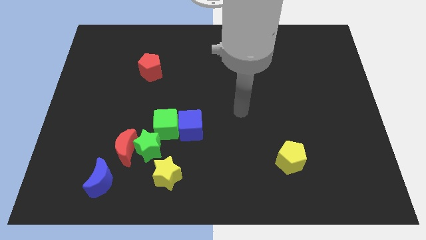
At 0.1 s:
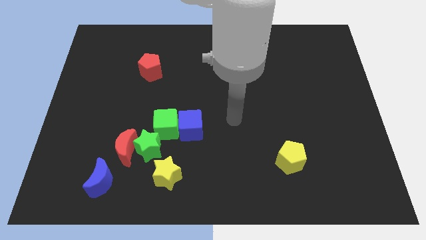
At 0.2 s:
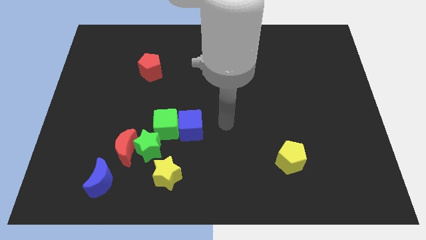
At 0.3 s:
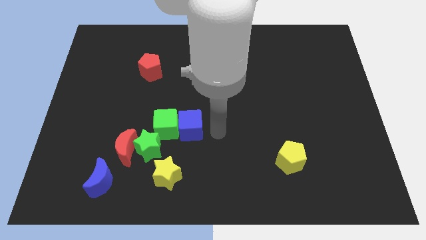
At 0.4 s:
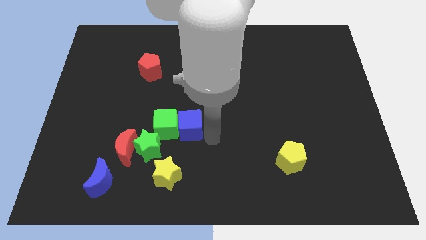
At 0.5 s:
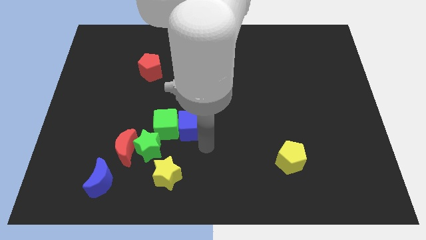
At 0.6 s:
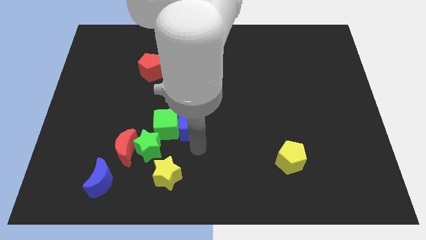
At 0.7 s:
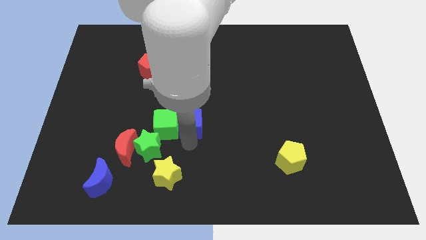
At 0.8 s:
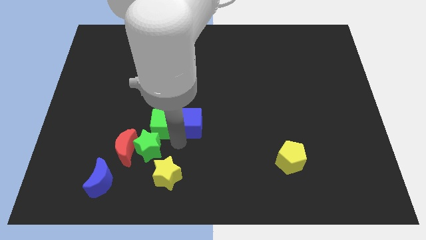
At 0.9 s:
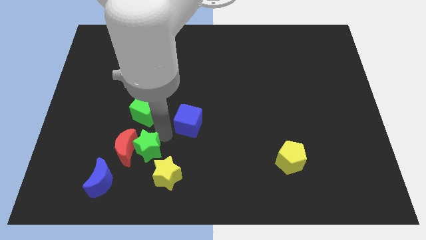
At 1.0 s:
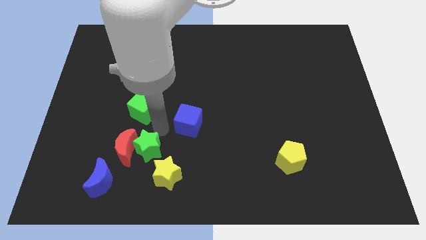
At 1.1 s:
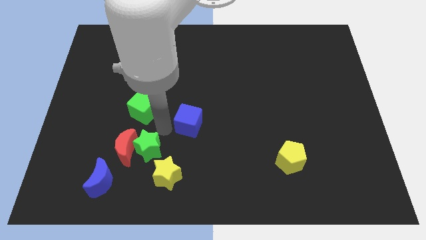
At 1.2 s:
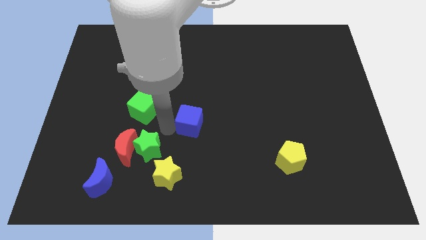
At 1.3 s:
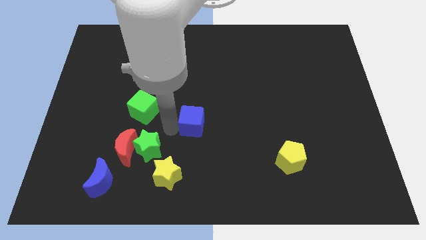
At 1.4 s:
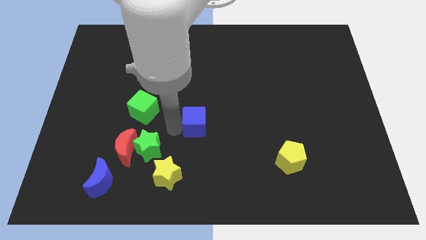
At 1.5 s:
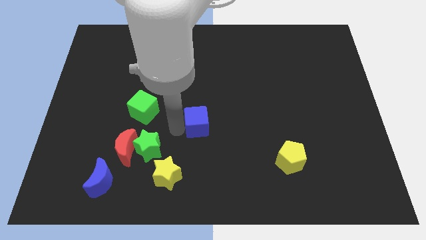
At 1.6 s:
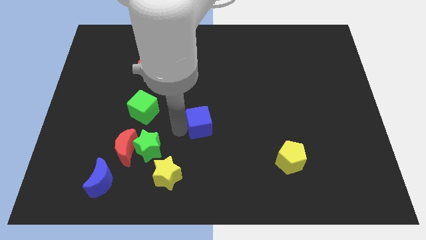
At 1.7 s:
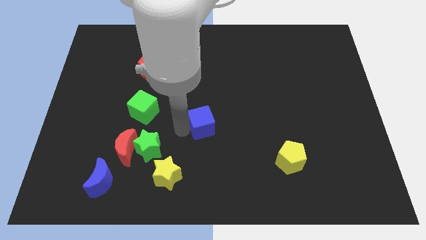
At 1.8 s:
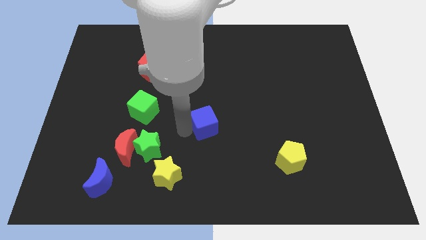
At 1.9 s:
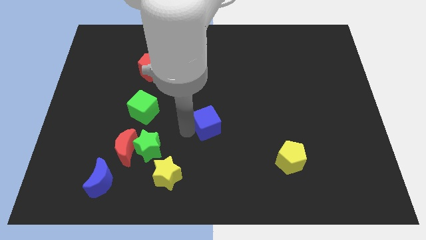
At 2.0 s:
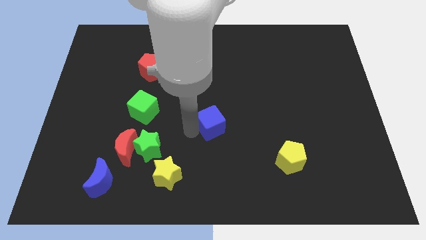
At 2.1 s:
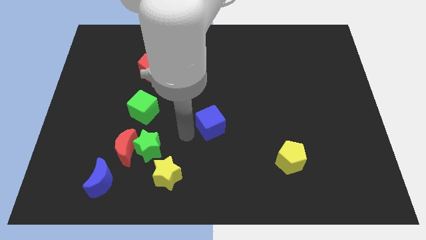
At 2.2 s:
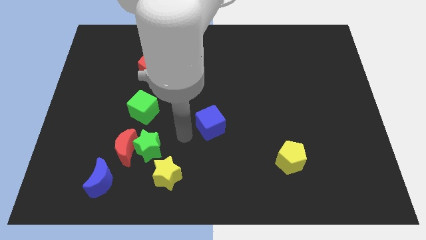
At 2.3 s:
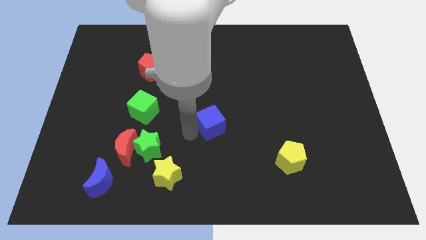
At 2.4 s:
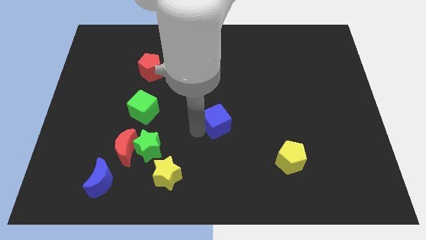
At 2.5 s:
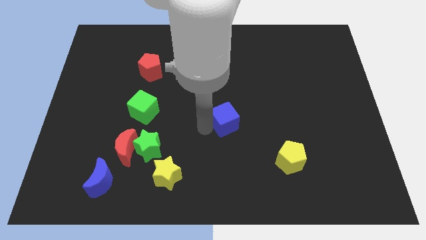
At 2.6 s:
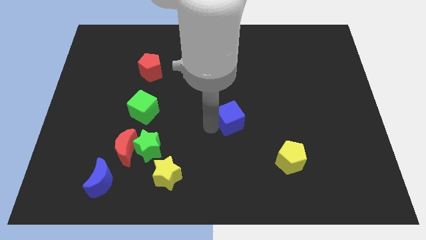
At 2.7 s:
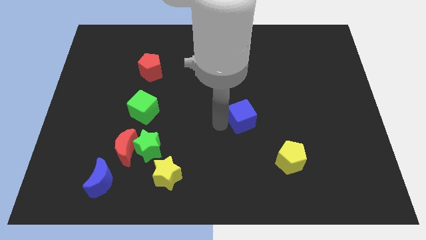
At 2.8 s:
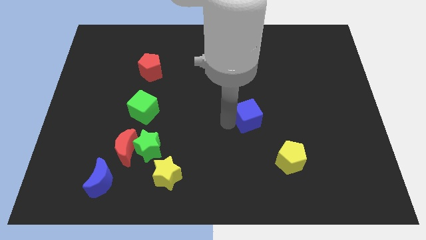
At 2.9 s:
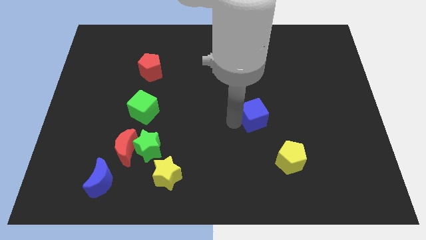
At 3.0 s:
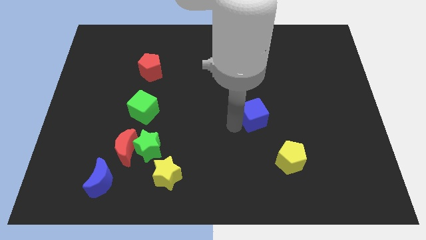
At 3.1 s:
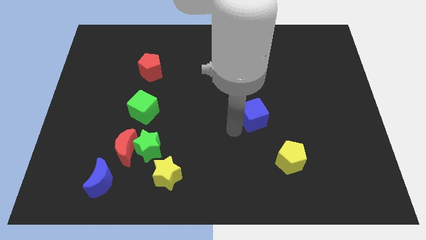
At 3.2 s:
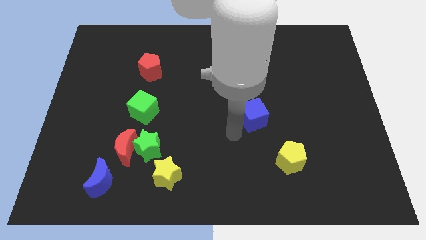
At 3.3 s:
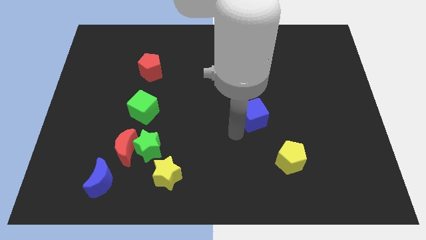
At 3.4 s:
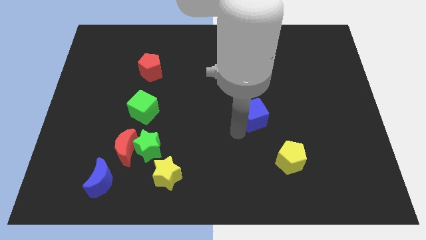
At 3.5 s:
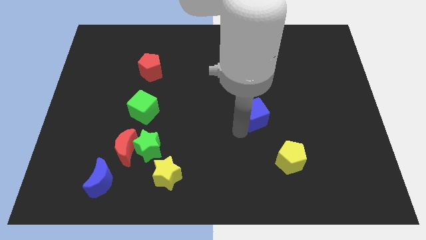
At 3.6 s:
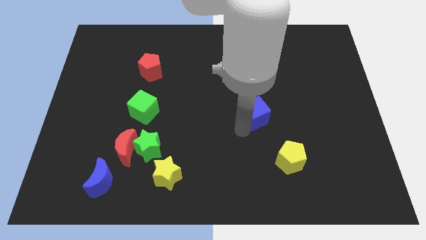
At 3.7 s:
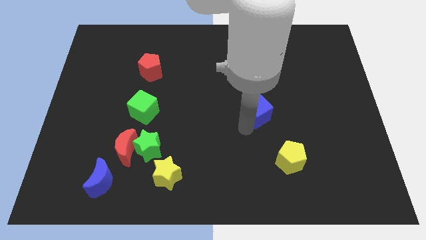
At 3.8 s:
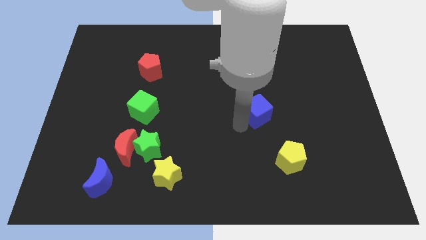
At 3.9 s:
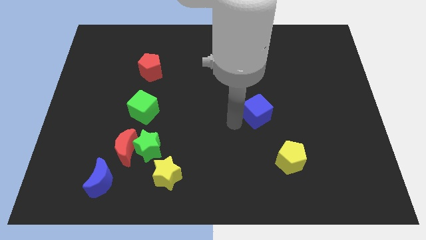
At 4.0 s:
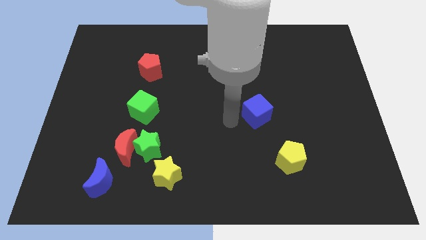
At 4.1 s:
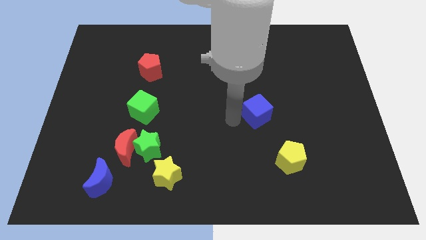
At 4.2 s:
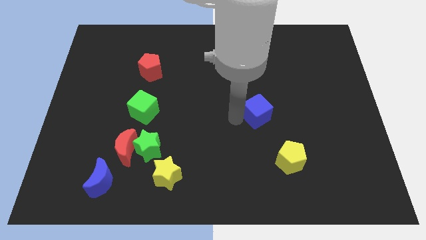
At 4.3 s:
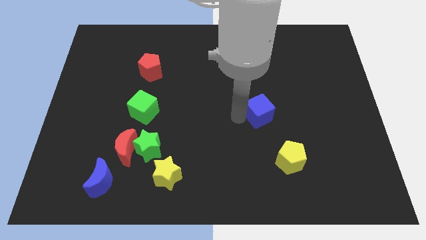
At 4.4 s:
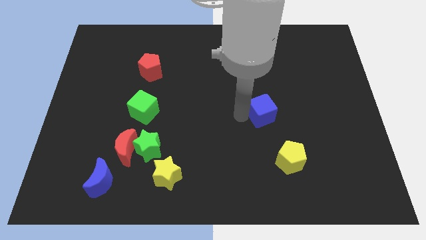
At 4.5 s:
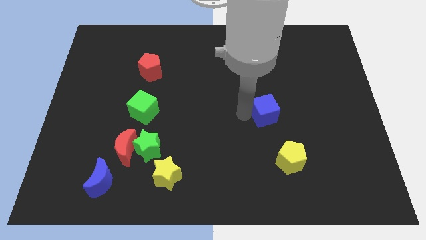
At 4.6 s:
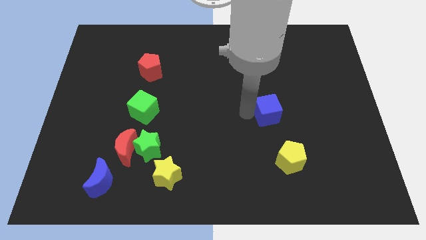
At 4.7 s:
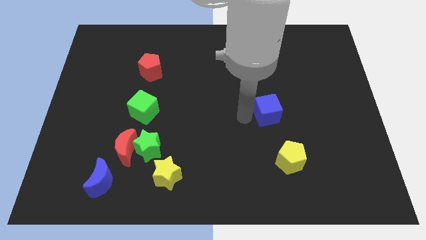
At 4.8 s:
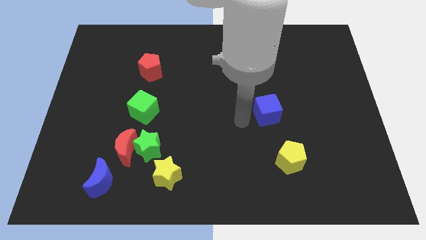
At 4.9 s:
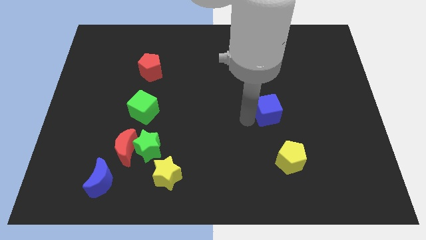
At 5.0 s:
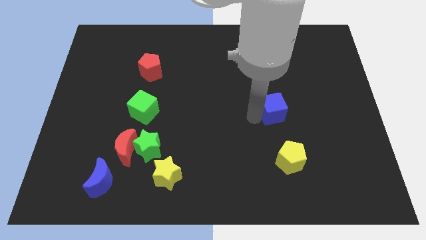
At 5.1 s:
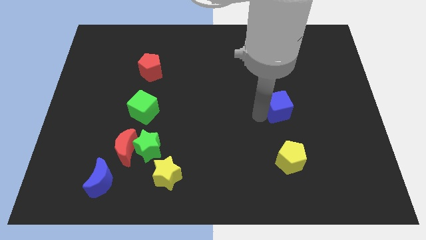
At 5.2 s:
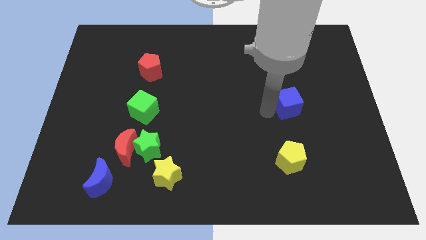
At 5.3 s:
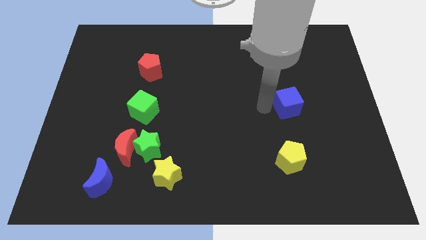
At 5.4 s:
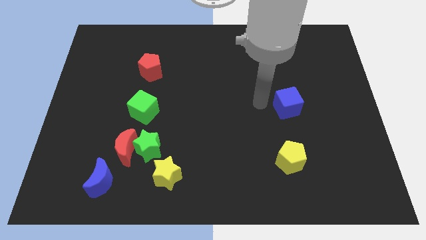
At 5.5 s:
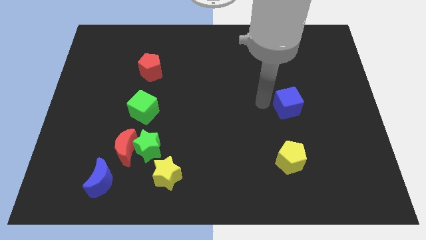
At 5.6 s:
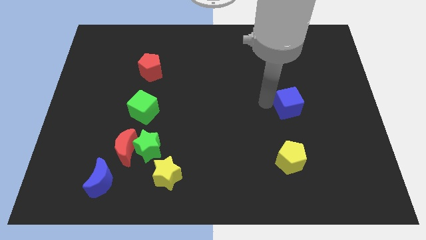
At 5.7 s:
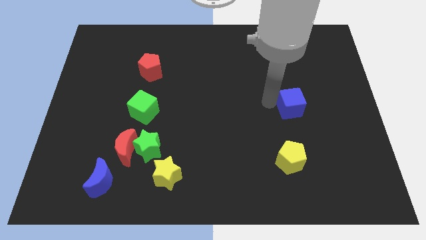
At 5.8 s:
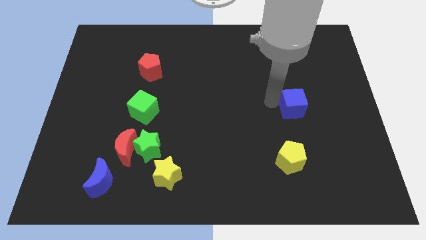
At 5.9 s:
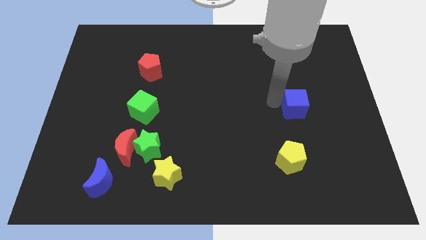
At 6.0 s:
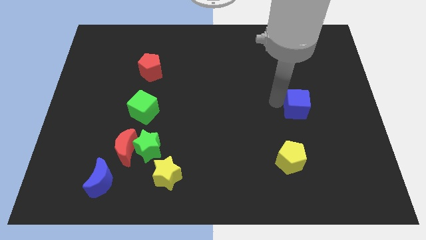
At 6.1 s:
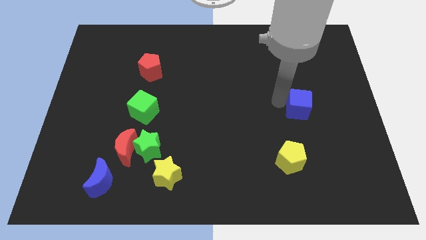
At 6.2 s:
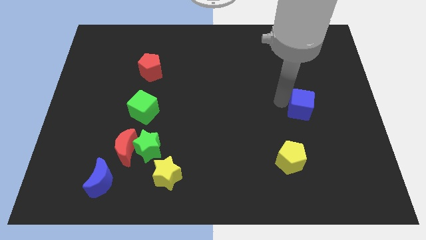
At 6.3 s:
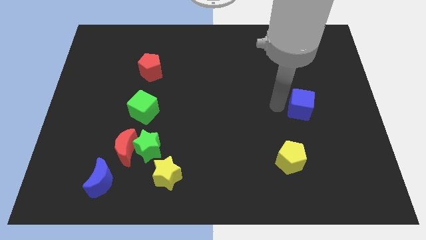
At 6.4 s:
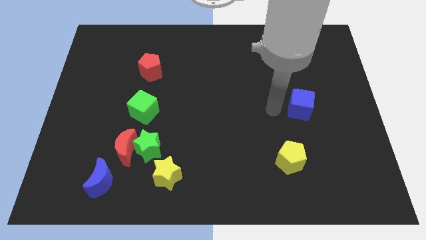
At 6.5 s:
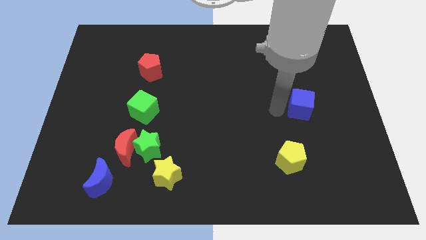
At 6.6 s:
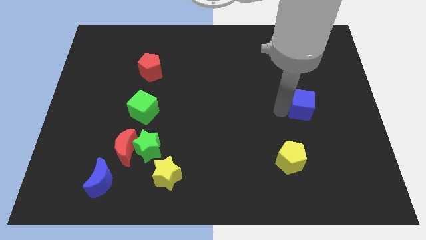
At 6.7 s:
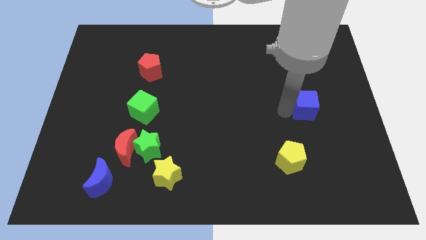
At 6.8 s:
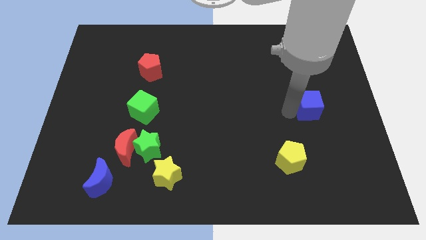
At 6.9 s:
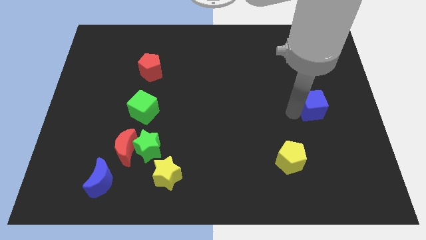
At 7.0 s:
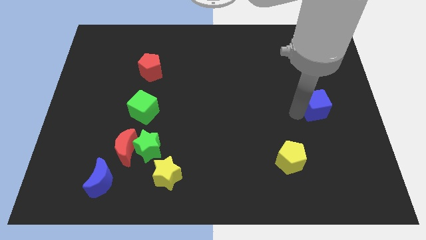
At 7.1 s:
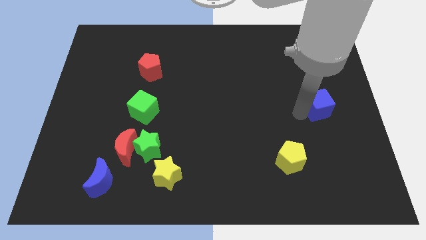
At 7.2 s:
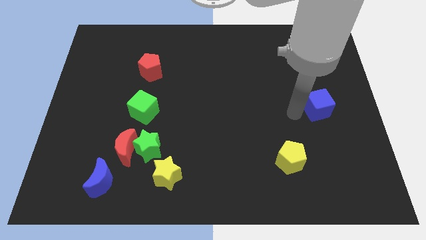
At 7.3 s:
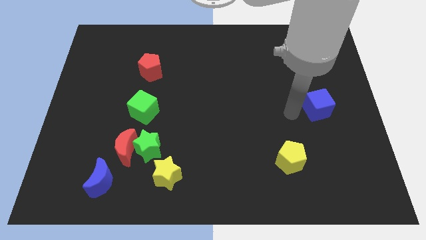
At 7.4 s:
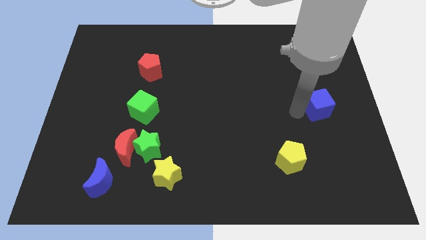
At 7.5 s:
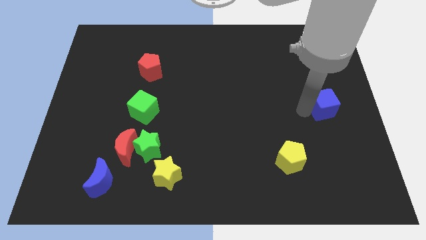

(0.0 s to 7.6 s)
slide the blue cube to the right side of the board

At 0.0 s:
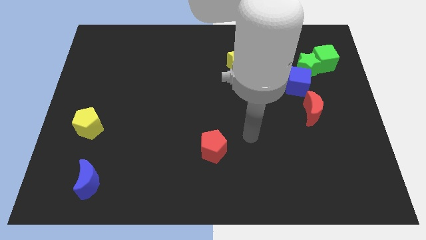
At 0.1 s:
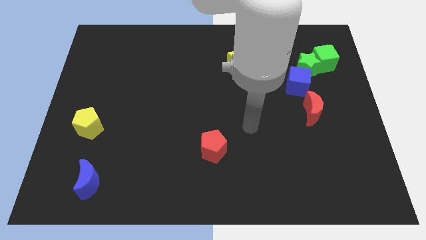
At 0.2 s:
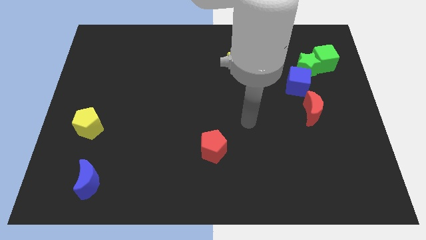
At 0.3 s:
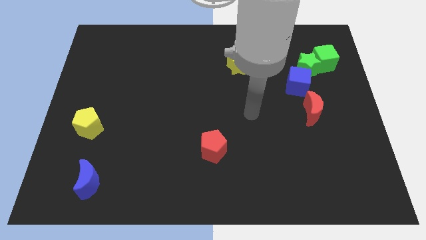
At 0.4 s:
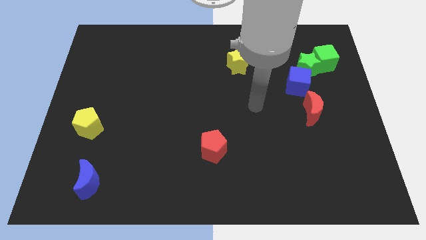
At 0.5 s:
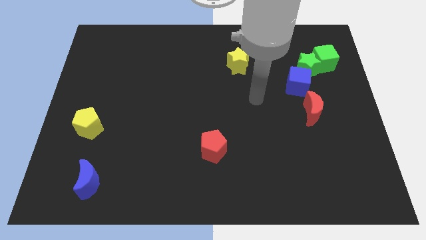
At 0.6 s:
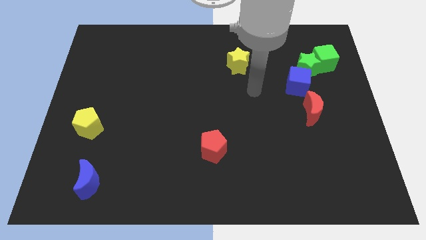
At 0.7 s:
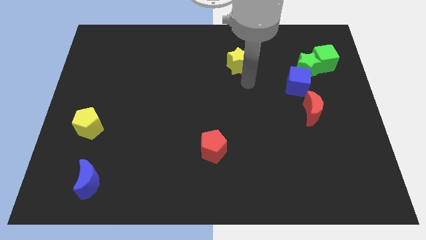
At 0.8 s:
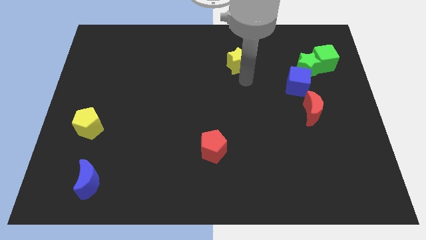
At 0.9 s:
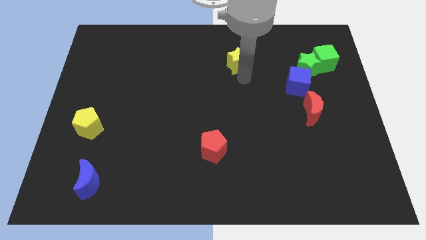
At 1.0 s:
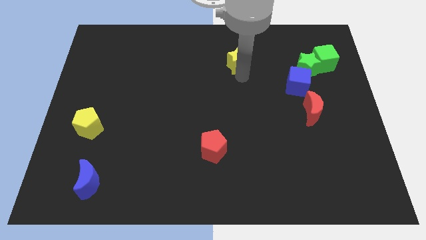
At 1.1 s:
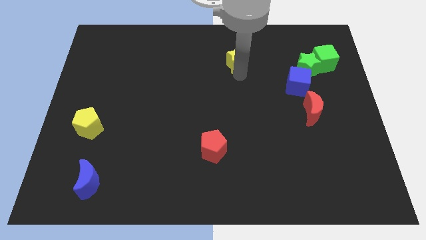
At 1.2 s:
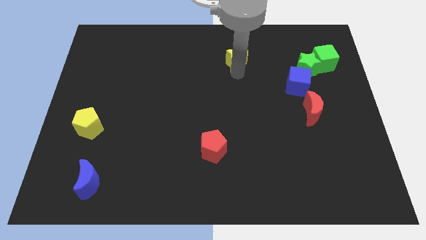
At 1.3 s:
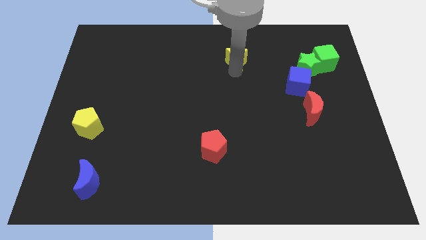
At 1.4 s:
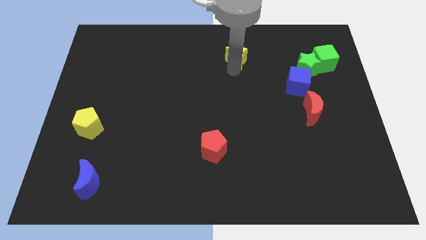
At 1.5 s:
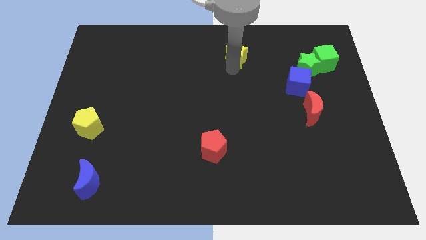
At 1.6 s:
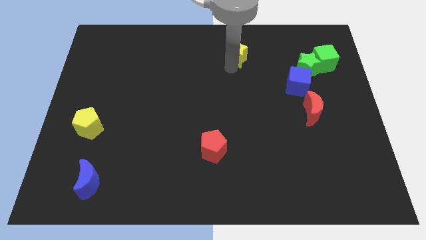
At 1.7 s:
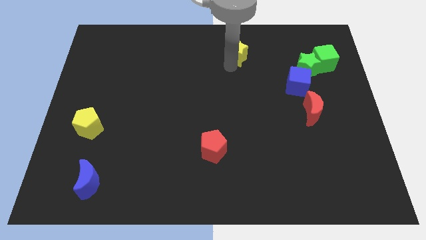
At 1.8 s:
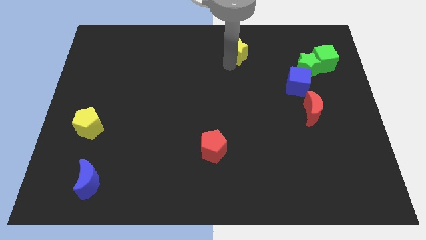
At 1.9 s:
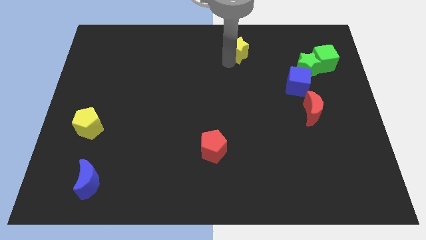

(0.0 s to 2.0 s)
move the yellow star to the top side
